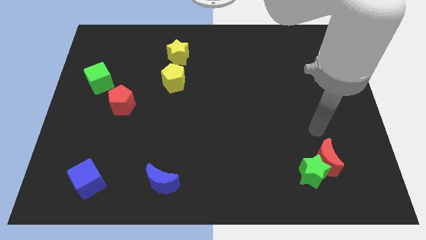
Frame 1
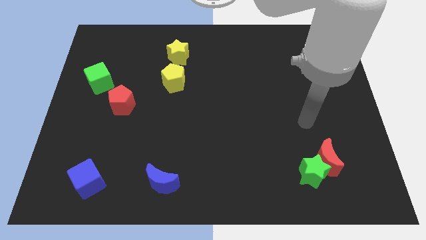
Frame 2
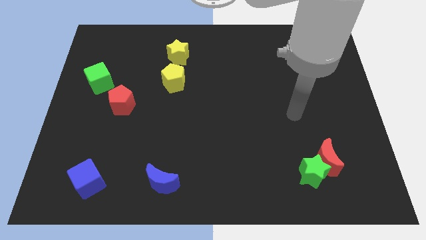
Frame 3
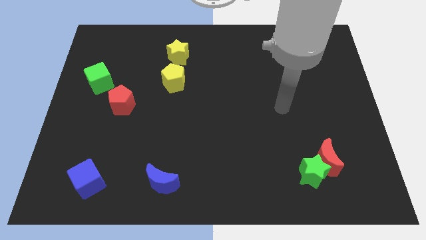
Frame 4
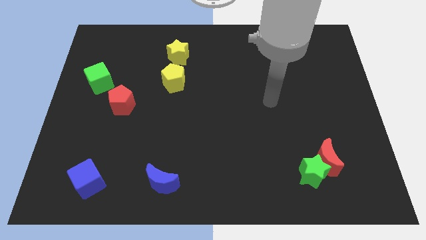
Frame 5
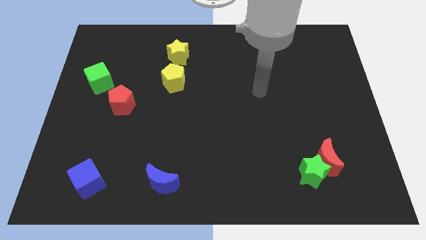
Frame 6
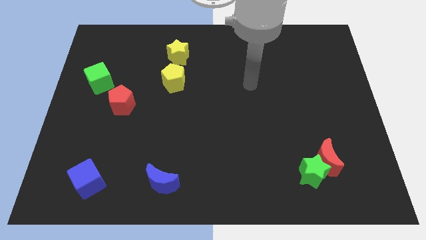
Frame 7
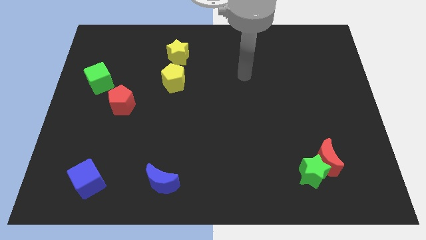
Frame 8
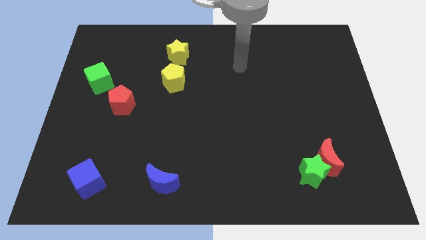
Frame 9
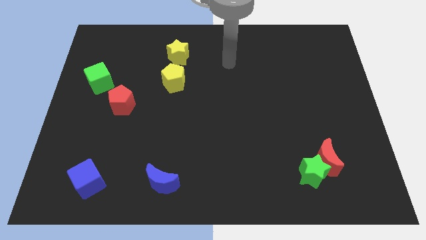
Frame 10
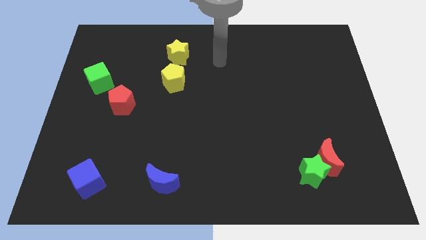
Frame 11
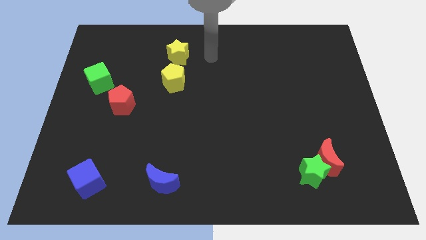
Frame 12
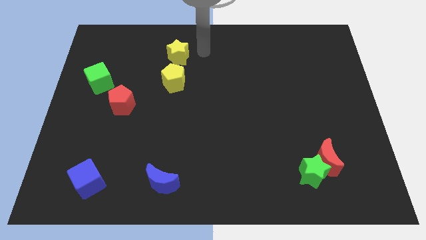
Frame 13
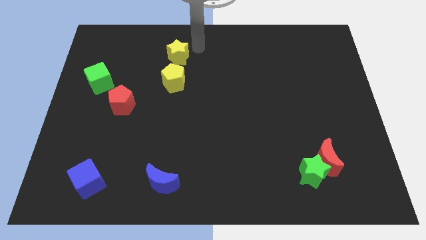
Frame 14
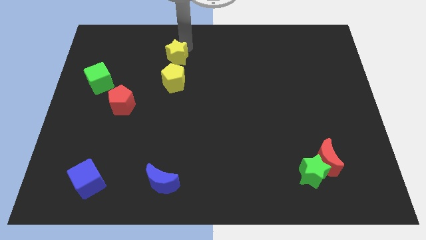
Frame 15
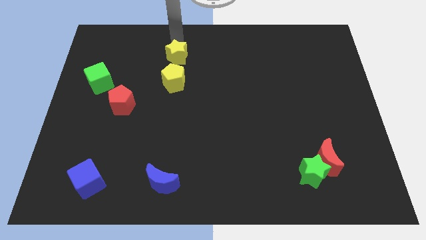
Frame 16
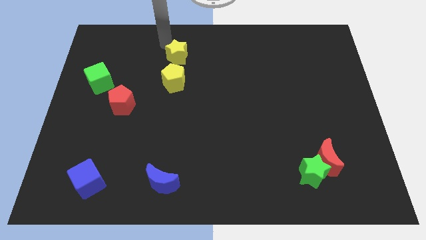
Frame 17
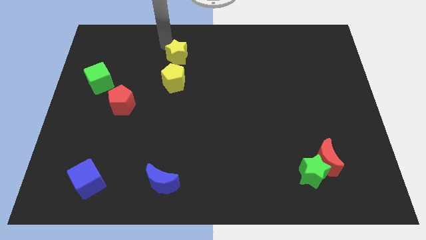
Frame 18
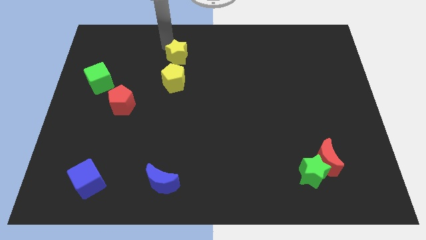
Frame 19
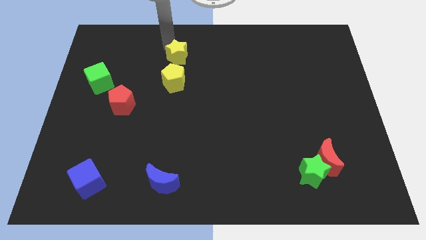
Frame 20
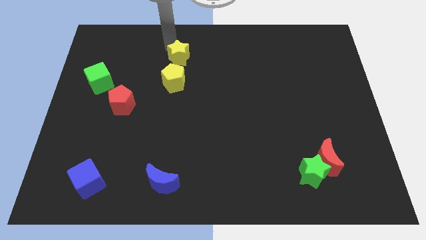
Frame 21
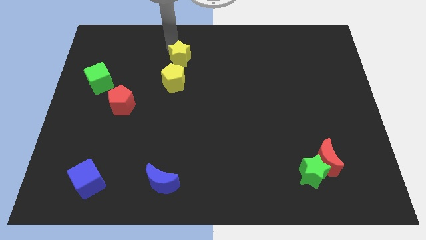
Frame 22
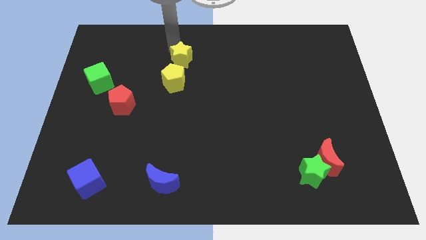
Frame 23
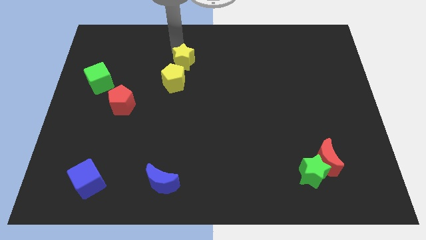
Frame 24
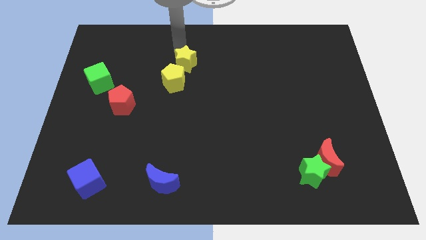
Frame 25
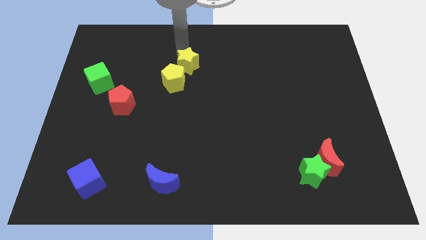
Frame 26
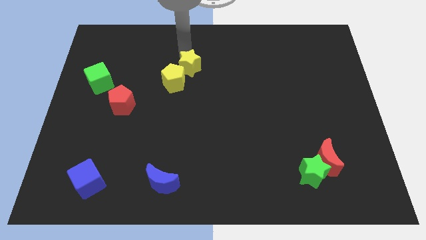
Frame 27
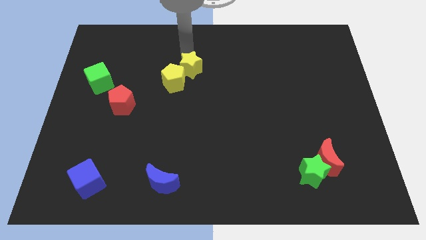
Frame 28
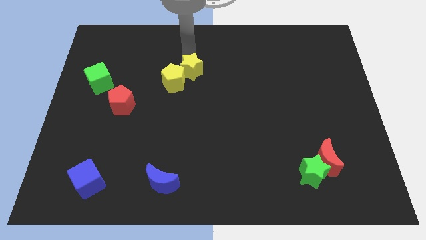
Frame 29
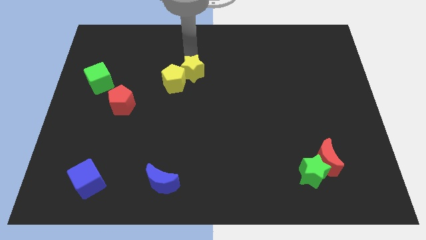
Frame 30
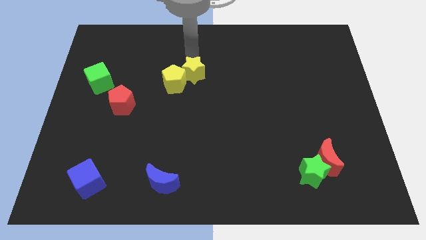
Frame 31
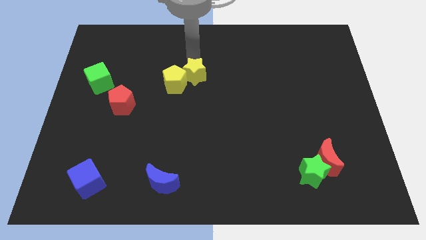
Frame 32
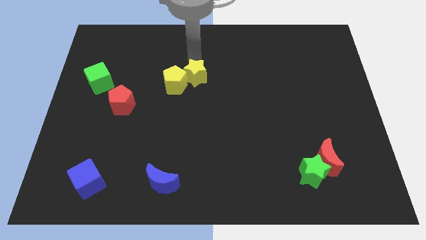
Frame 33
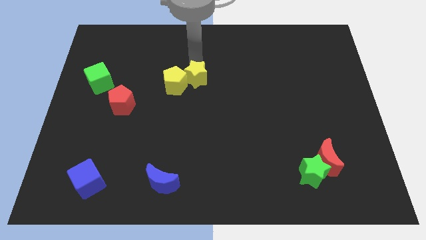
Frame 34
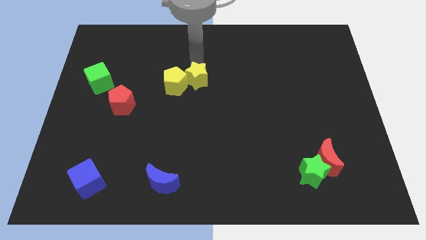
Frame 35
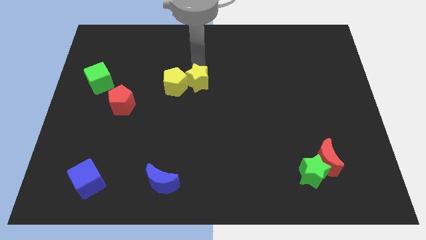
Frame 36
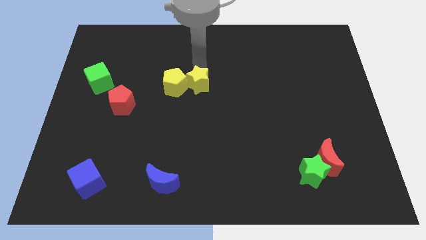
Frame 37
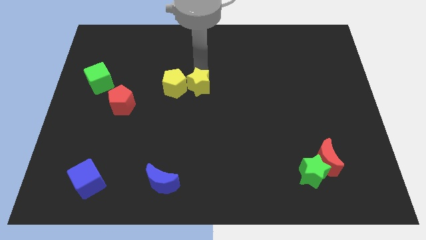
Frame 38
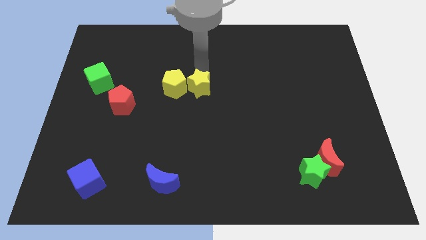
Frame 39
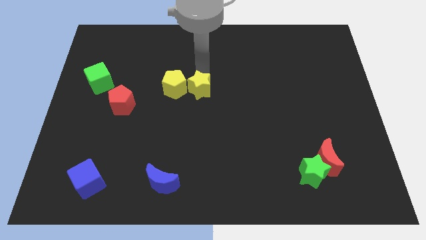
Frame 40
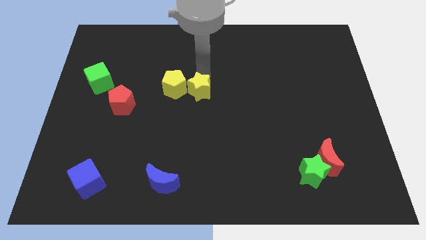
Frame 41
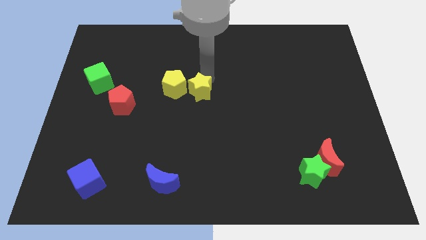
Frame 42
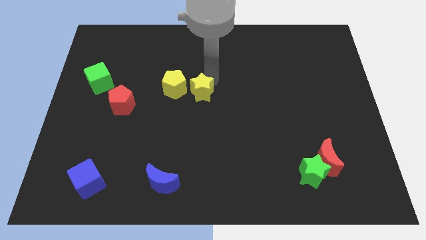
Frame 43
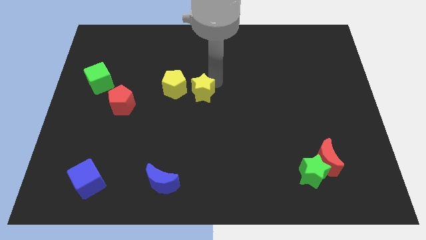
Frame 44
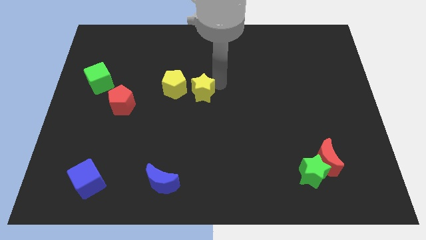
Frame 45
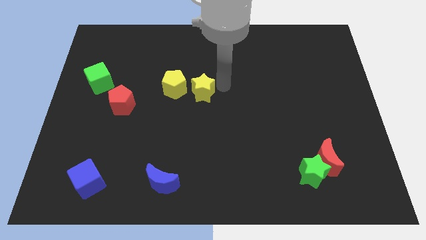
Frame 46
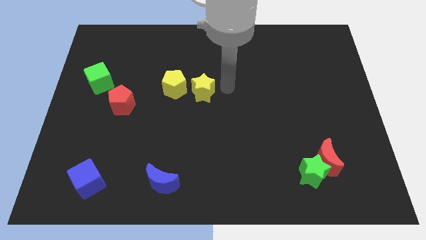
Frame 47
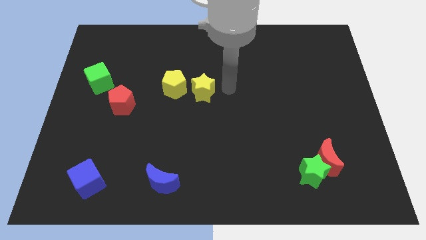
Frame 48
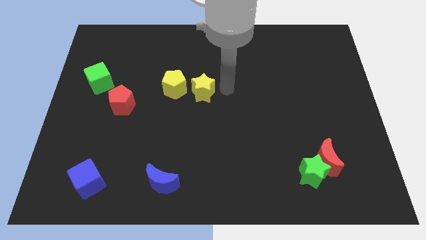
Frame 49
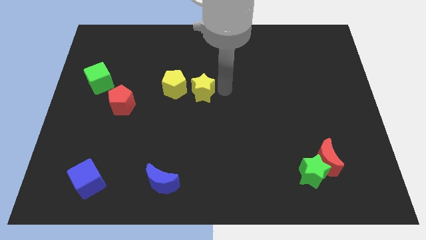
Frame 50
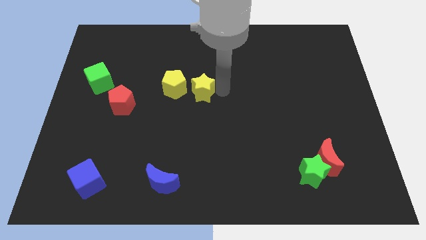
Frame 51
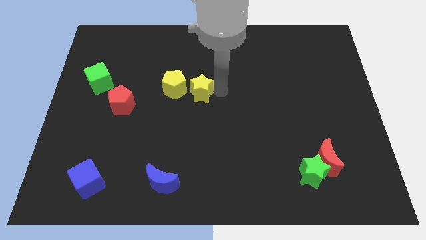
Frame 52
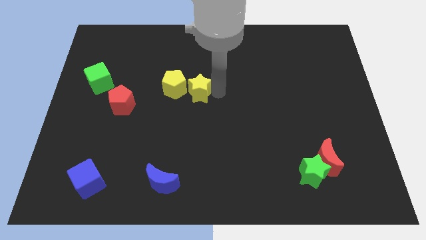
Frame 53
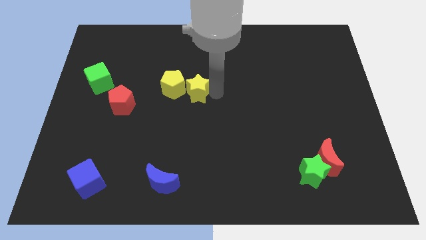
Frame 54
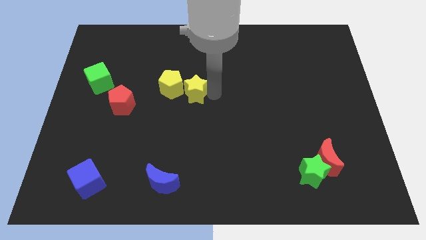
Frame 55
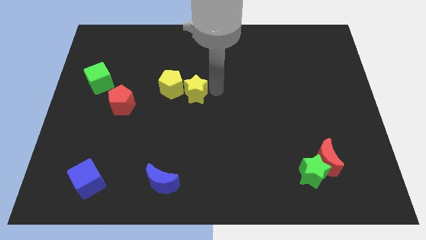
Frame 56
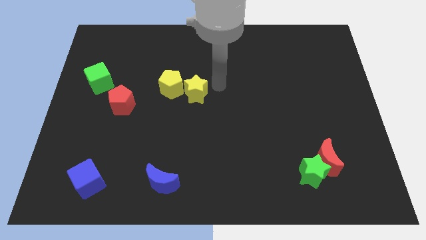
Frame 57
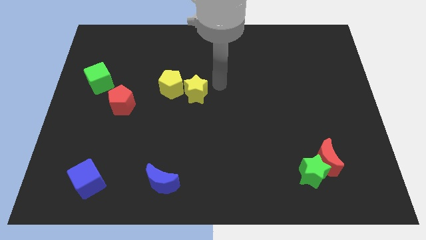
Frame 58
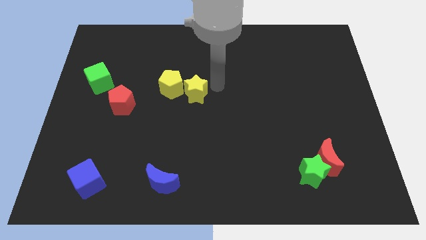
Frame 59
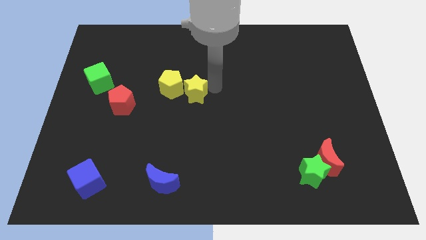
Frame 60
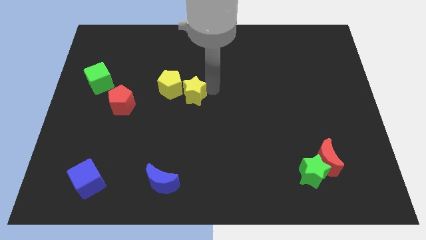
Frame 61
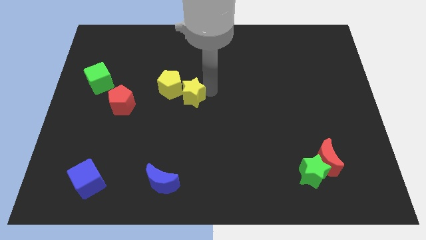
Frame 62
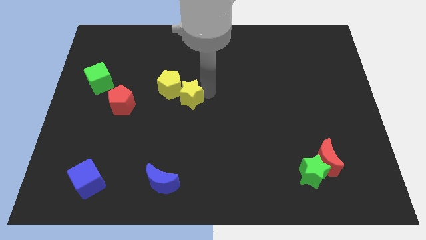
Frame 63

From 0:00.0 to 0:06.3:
move the yellow star just right of the red pentagon

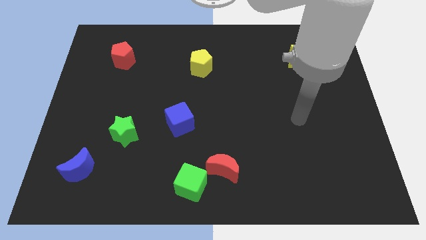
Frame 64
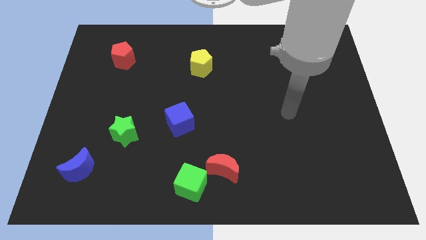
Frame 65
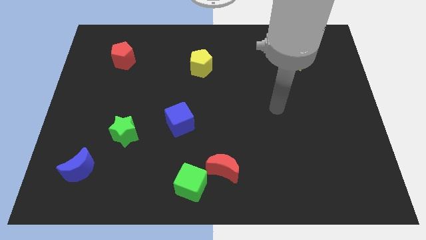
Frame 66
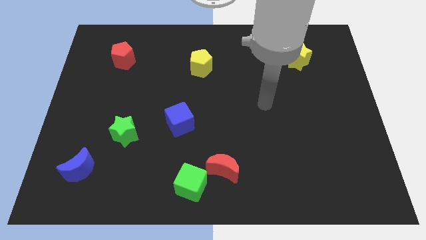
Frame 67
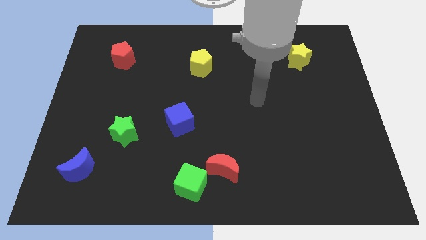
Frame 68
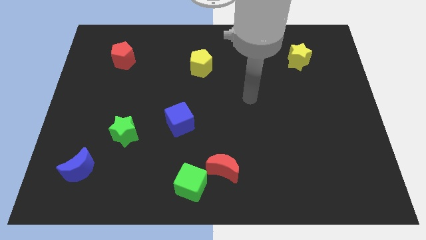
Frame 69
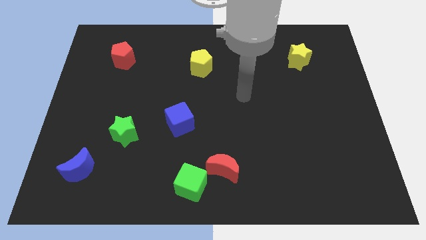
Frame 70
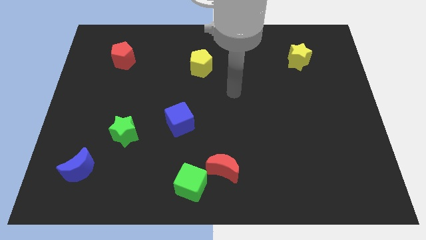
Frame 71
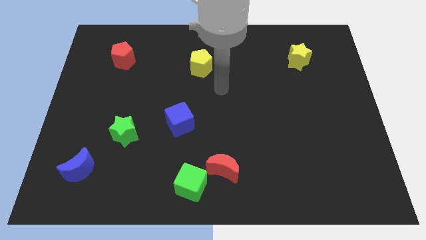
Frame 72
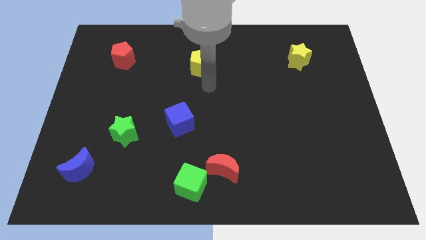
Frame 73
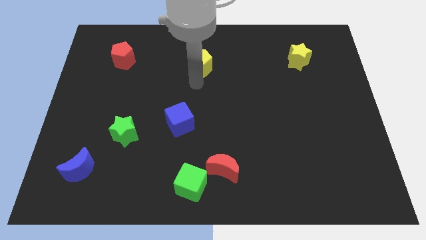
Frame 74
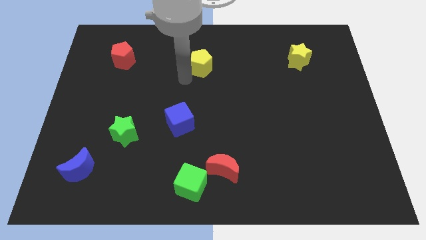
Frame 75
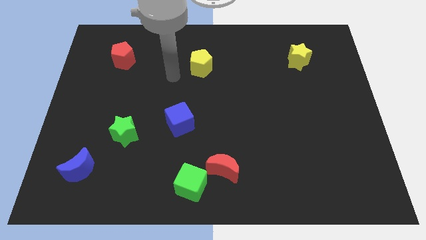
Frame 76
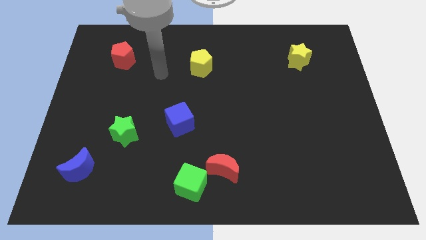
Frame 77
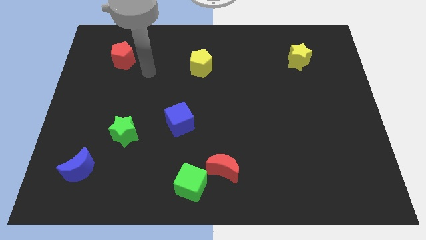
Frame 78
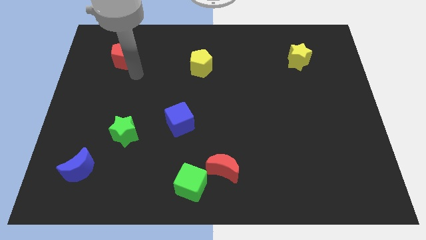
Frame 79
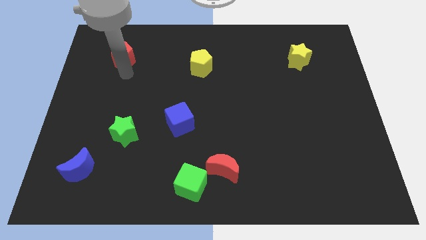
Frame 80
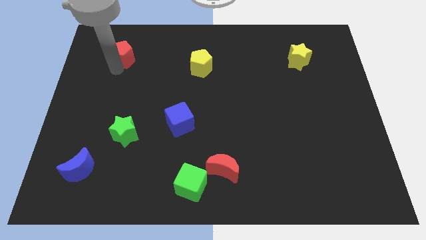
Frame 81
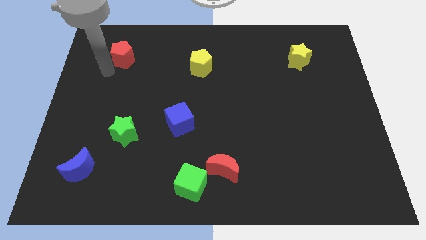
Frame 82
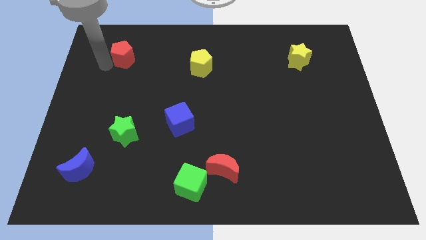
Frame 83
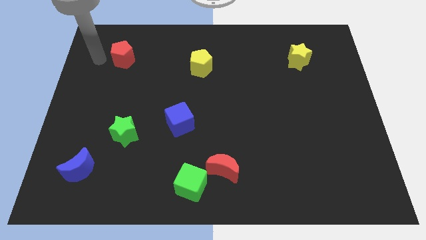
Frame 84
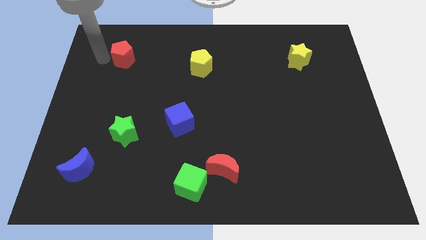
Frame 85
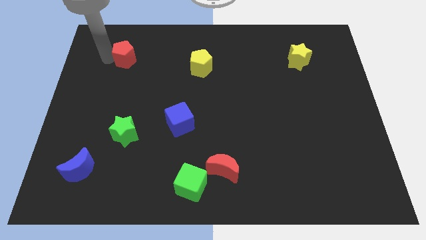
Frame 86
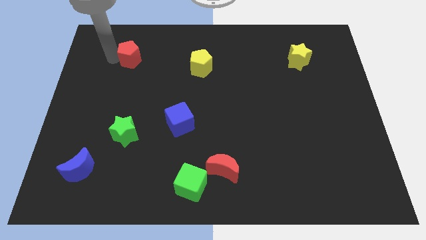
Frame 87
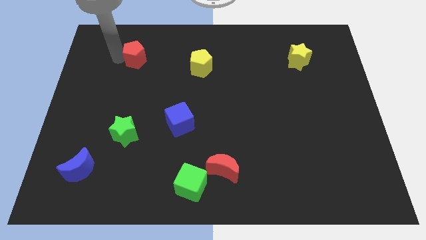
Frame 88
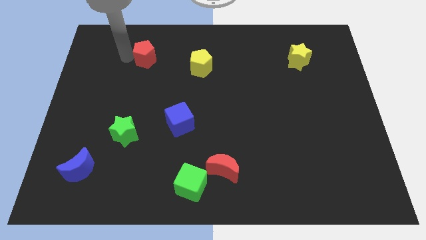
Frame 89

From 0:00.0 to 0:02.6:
push the red pentagon to the left of the yellow pentagon
